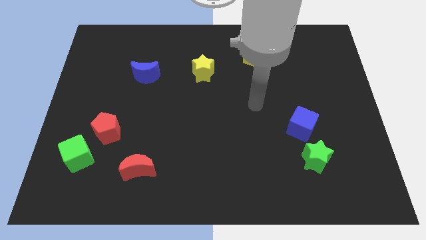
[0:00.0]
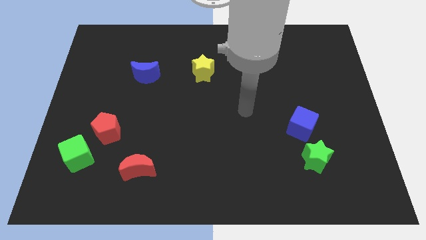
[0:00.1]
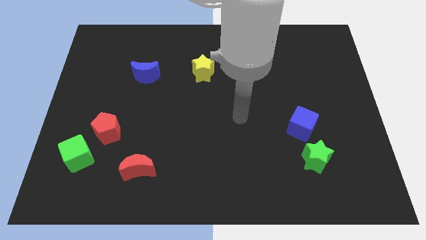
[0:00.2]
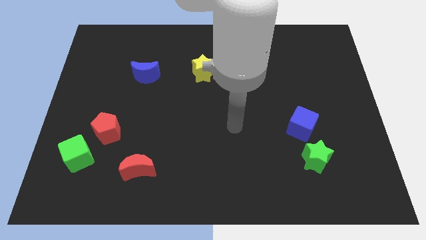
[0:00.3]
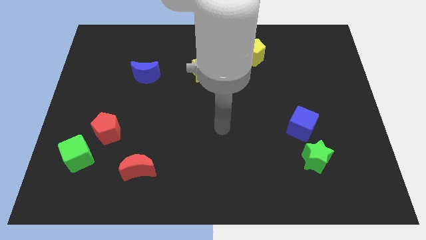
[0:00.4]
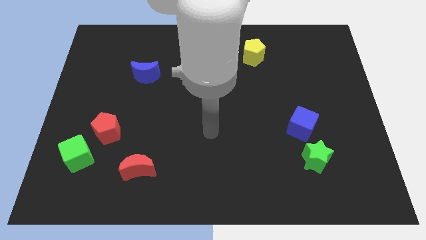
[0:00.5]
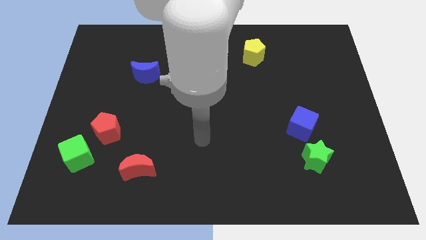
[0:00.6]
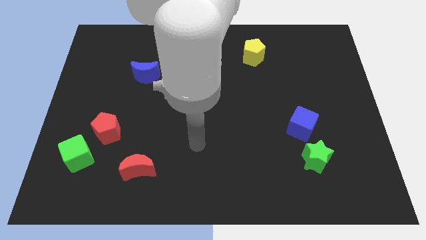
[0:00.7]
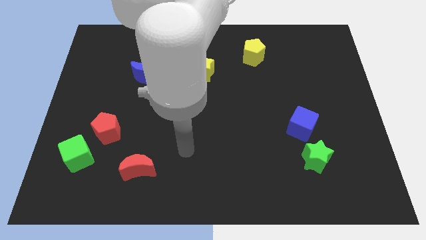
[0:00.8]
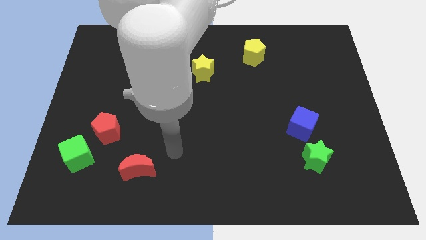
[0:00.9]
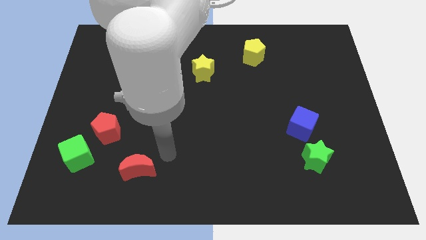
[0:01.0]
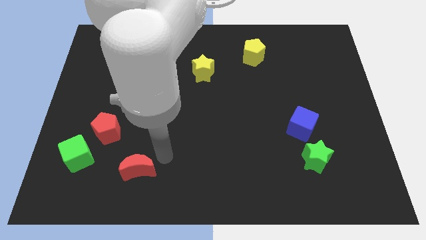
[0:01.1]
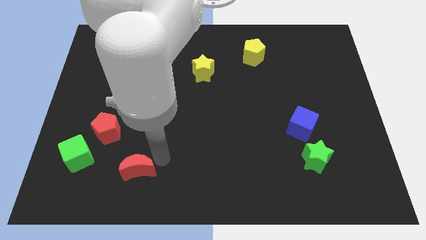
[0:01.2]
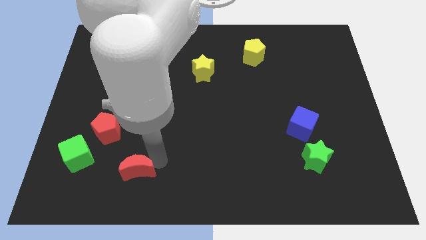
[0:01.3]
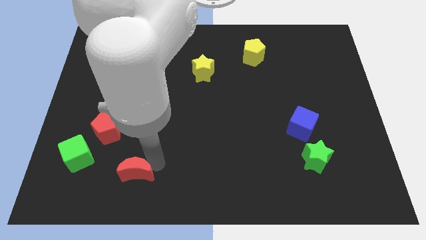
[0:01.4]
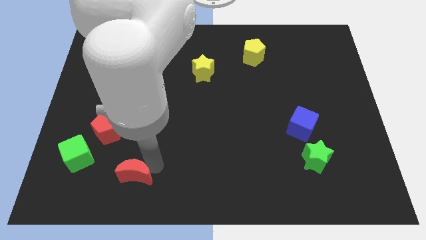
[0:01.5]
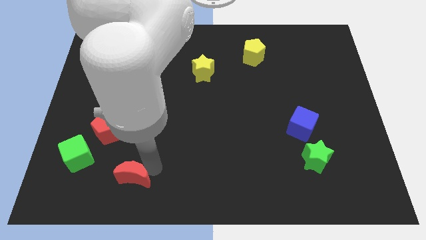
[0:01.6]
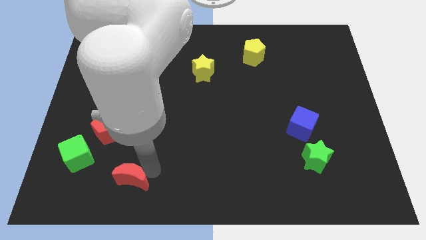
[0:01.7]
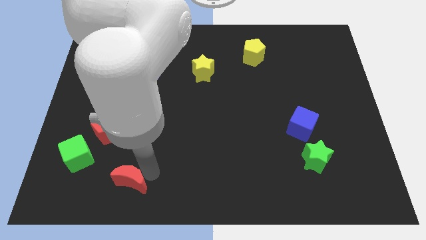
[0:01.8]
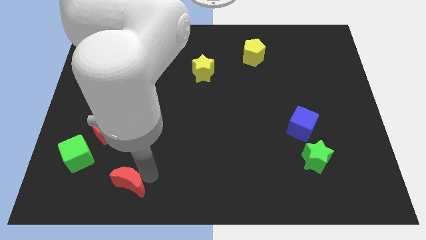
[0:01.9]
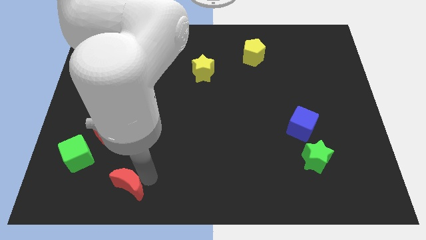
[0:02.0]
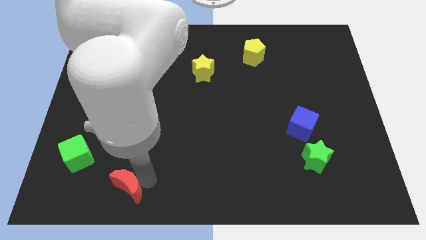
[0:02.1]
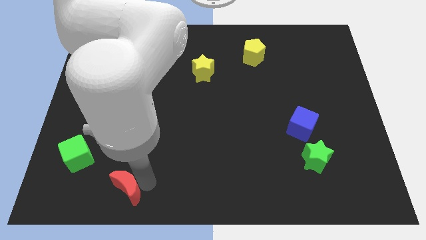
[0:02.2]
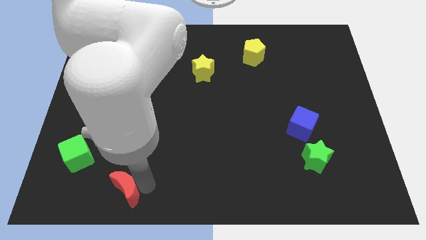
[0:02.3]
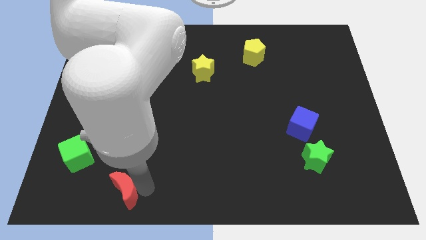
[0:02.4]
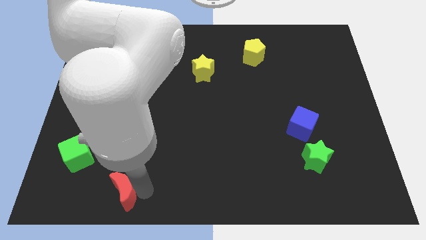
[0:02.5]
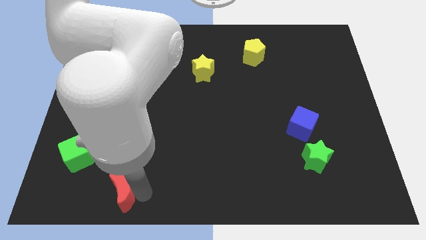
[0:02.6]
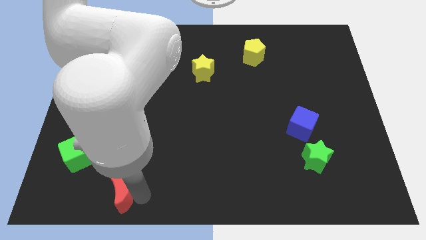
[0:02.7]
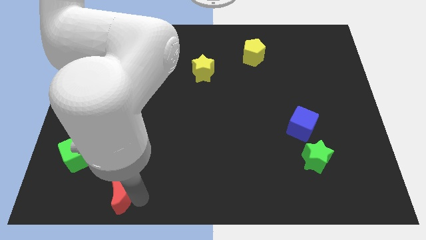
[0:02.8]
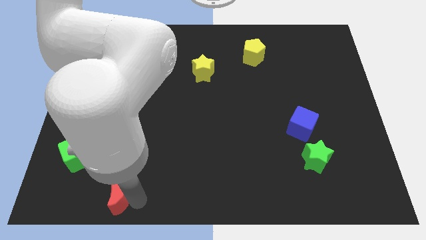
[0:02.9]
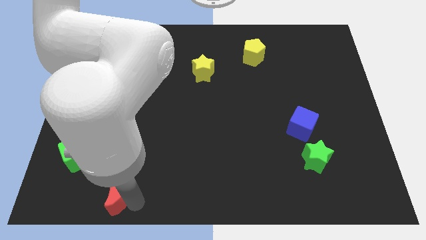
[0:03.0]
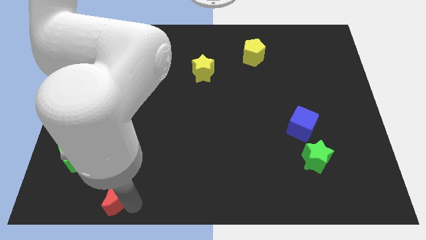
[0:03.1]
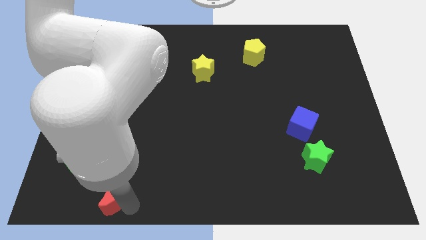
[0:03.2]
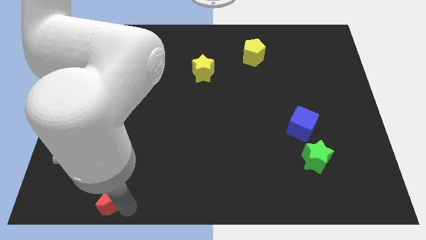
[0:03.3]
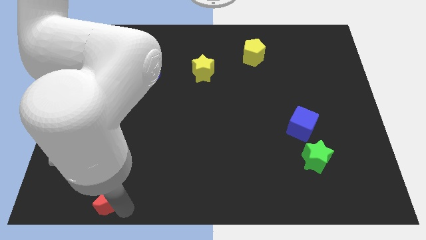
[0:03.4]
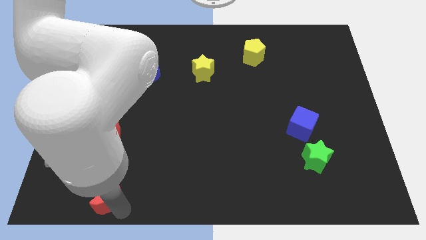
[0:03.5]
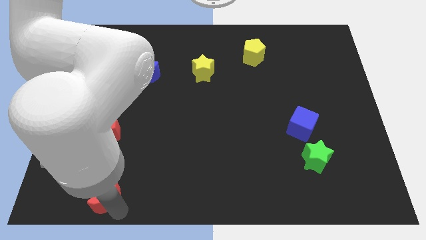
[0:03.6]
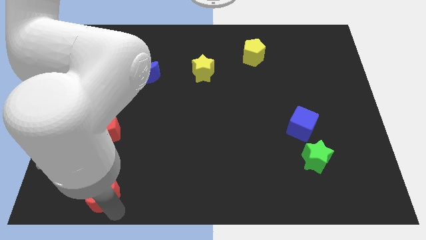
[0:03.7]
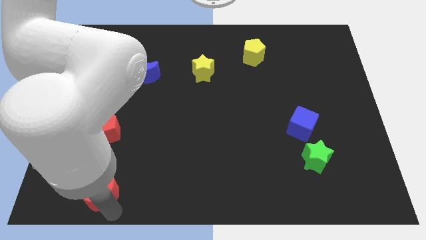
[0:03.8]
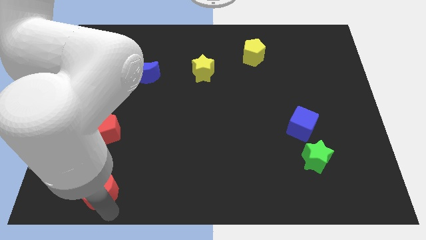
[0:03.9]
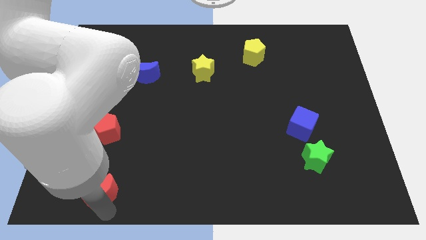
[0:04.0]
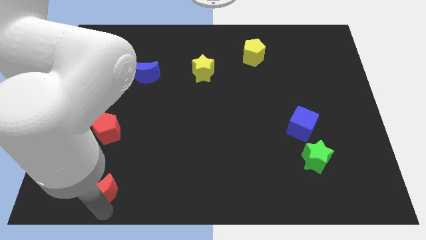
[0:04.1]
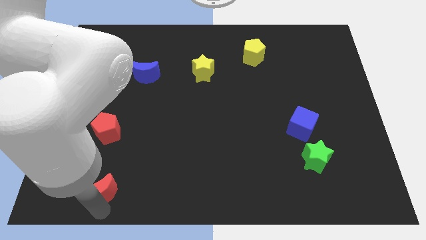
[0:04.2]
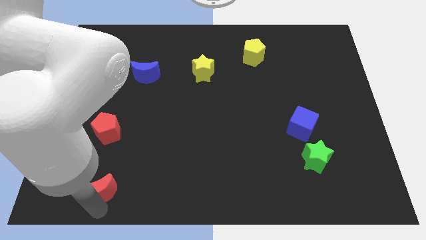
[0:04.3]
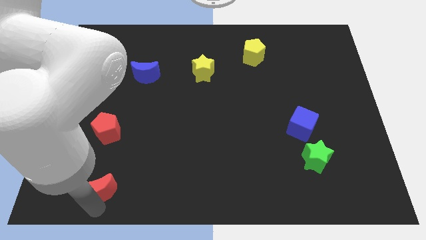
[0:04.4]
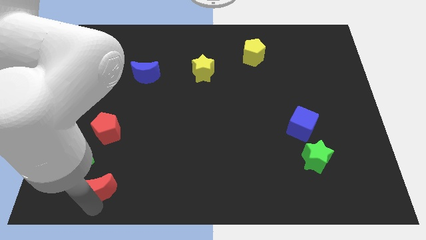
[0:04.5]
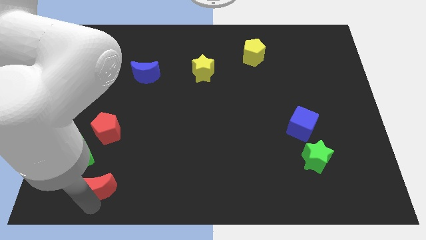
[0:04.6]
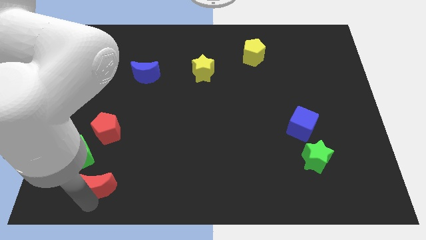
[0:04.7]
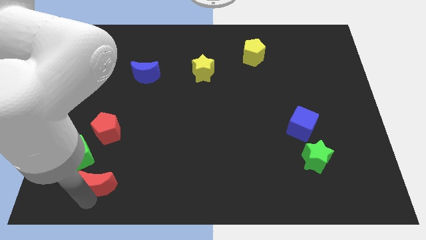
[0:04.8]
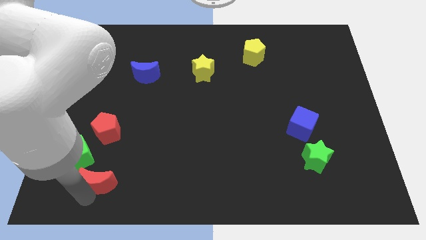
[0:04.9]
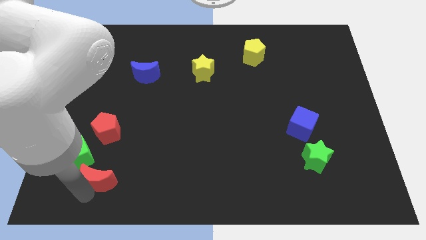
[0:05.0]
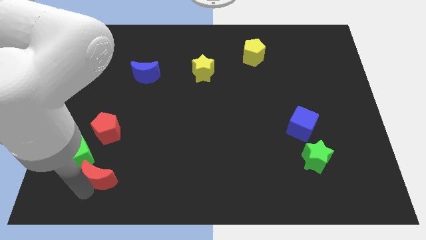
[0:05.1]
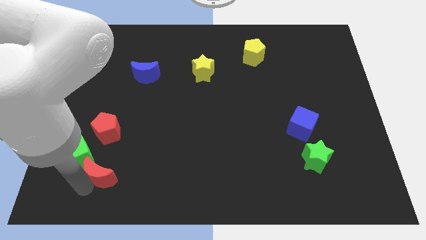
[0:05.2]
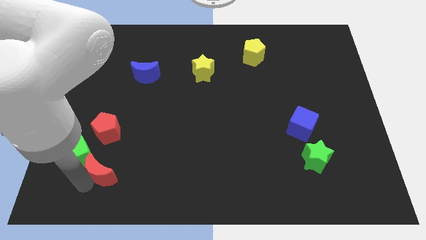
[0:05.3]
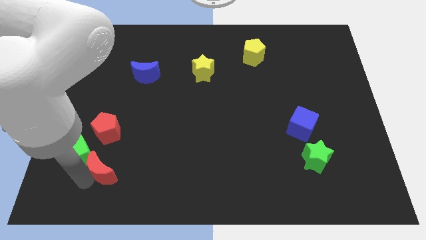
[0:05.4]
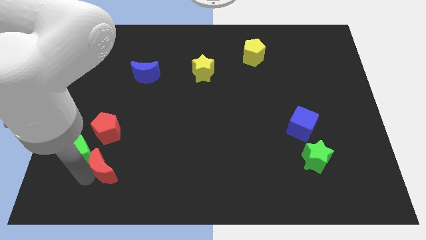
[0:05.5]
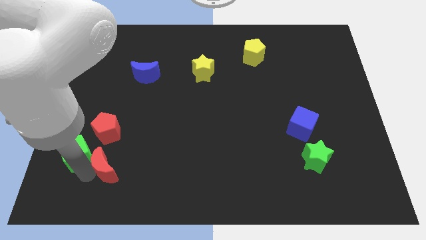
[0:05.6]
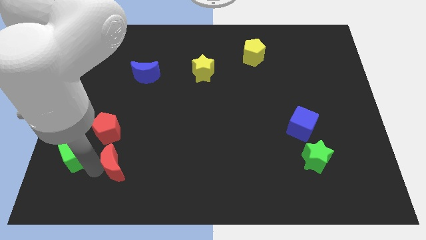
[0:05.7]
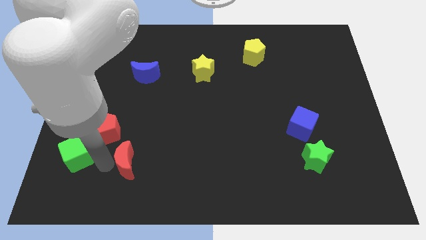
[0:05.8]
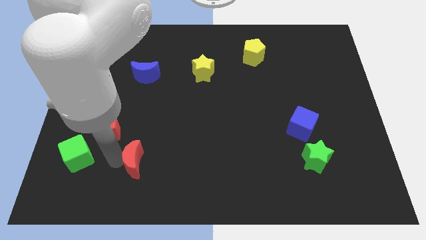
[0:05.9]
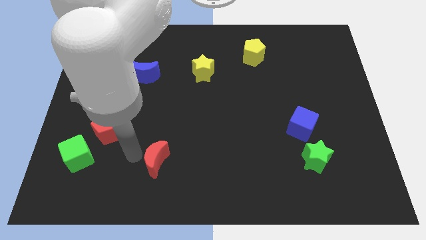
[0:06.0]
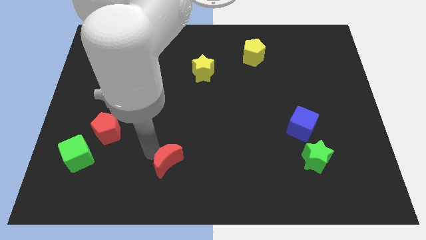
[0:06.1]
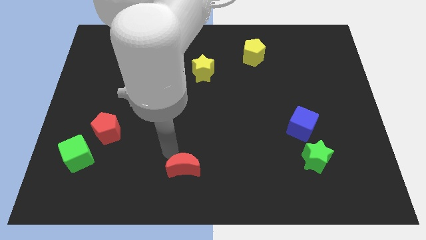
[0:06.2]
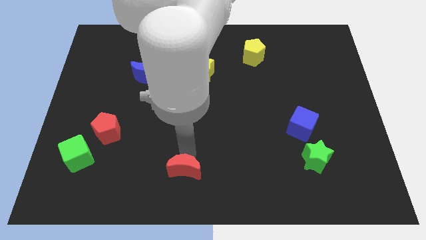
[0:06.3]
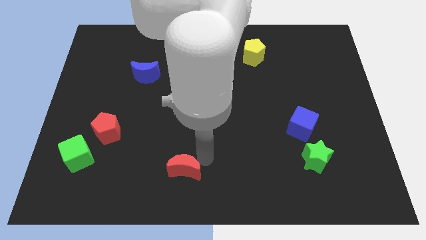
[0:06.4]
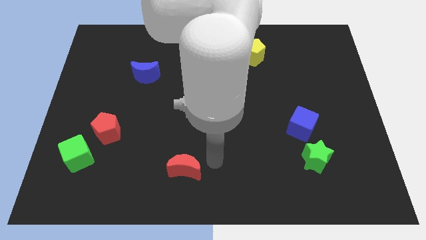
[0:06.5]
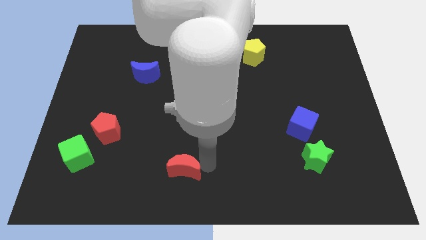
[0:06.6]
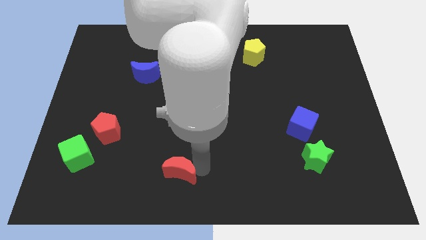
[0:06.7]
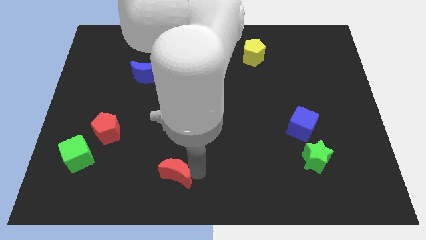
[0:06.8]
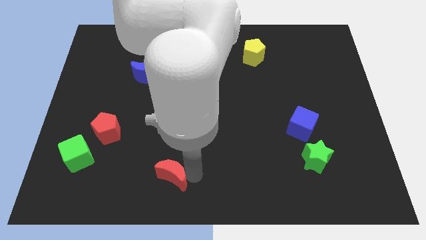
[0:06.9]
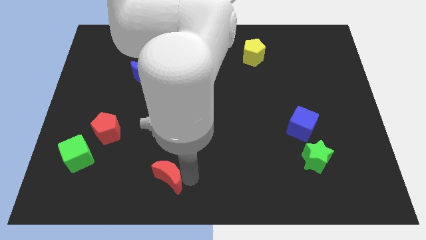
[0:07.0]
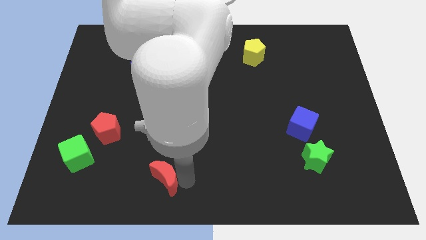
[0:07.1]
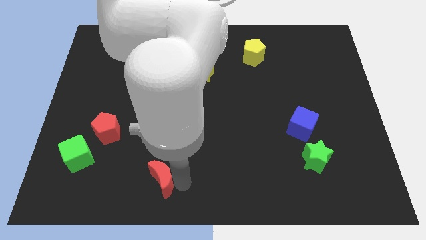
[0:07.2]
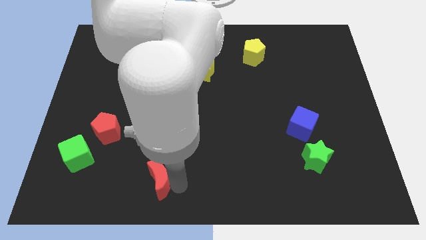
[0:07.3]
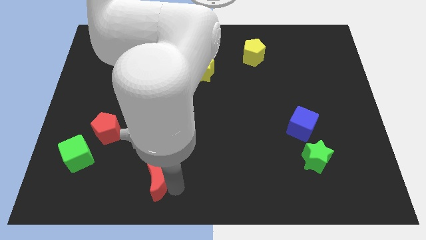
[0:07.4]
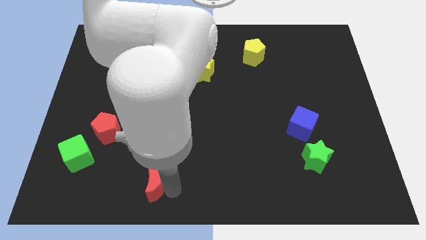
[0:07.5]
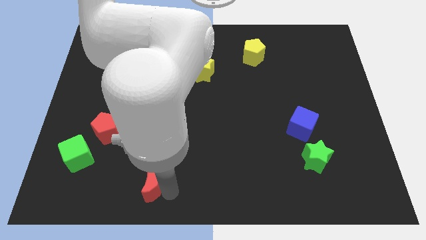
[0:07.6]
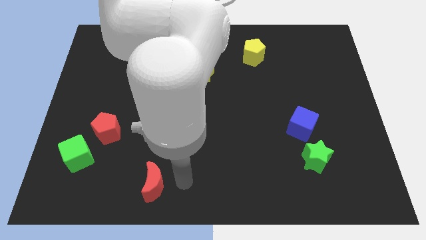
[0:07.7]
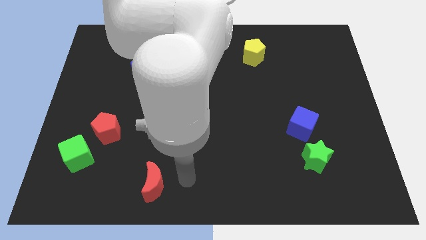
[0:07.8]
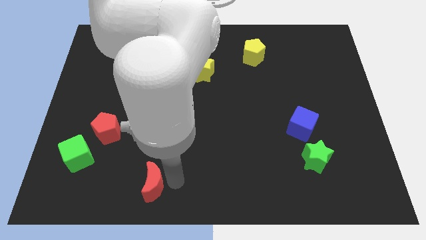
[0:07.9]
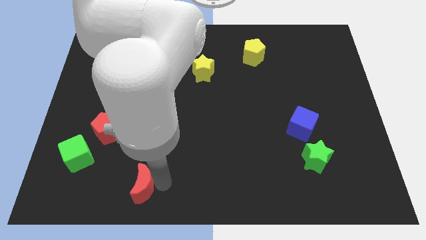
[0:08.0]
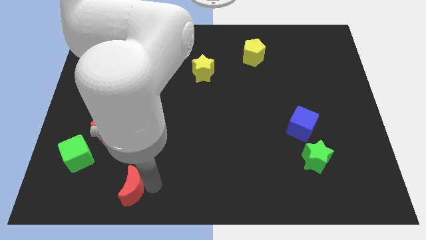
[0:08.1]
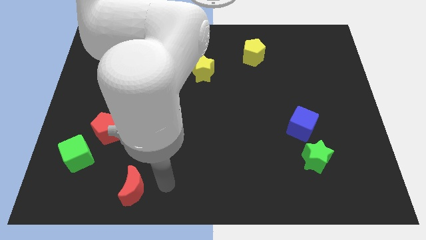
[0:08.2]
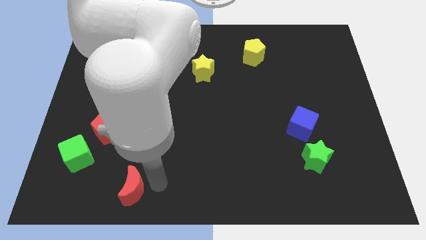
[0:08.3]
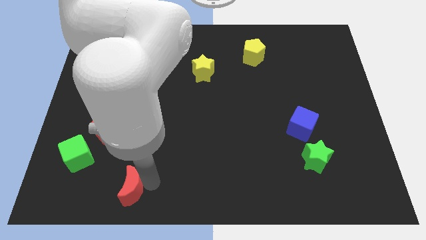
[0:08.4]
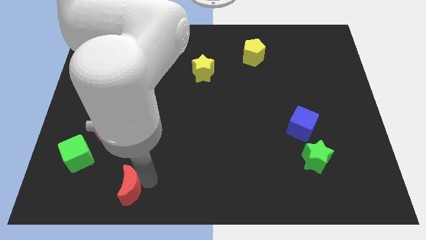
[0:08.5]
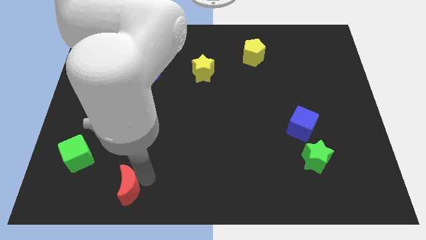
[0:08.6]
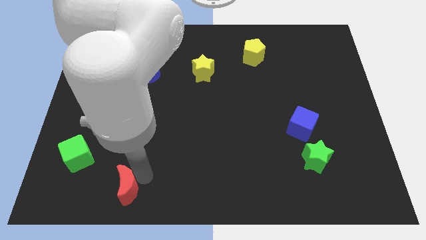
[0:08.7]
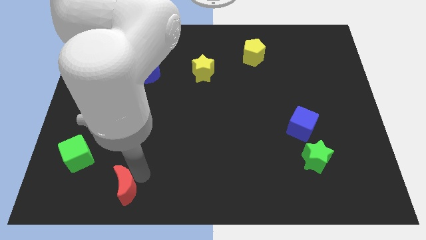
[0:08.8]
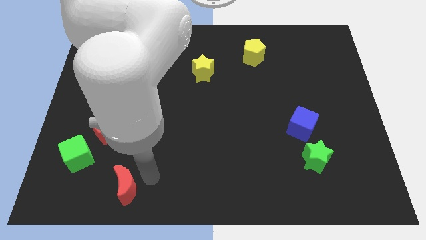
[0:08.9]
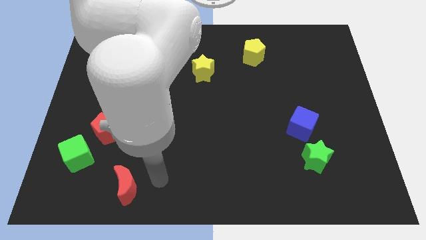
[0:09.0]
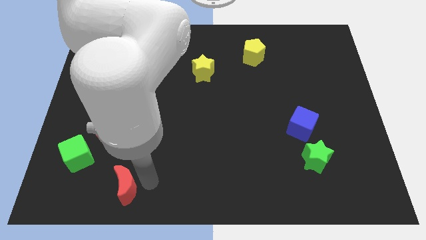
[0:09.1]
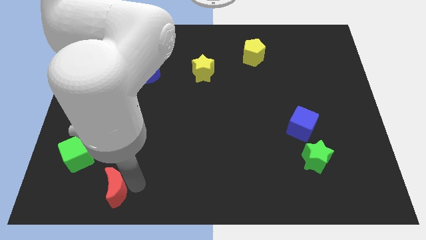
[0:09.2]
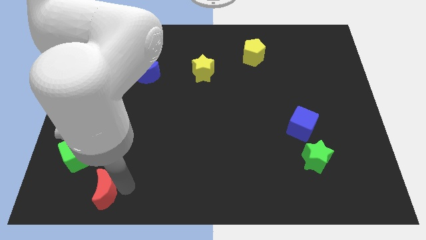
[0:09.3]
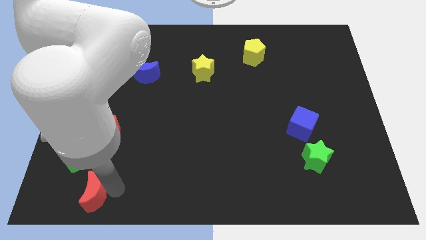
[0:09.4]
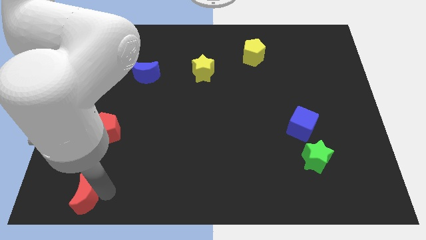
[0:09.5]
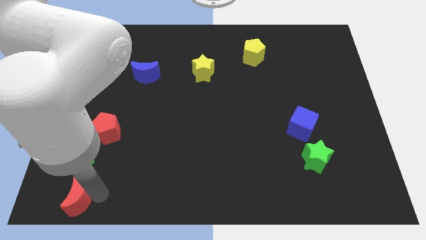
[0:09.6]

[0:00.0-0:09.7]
put the red moon to the lower left corner
